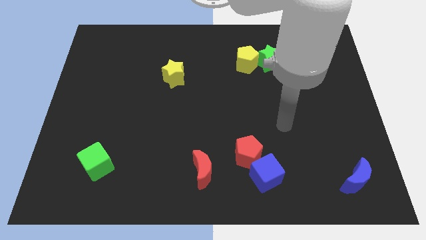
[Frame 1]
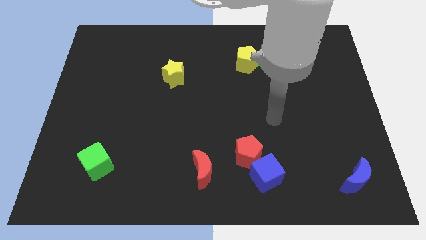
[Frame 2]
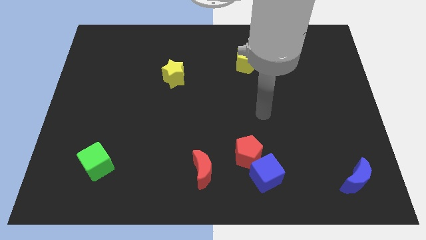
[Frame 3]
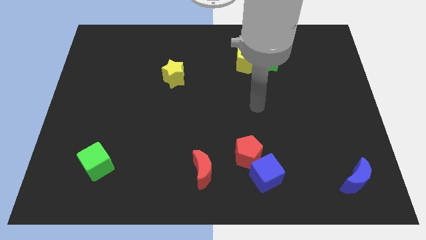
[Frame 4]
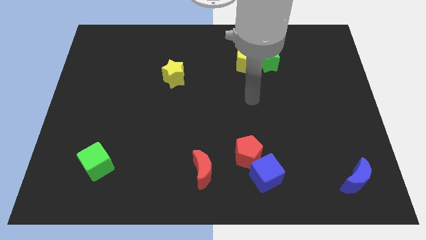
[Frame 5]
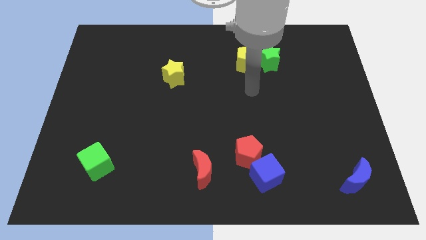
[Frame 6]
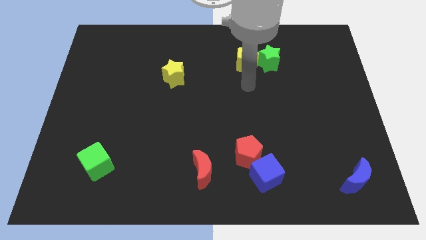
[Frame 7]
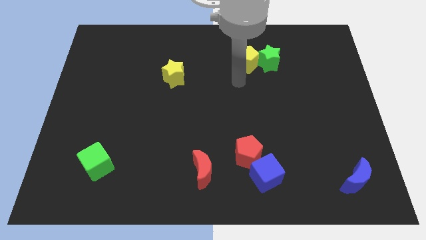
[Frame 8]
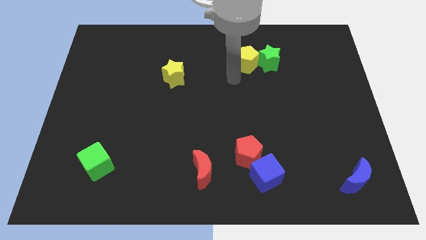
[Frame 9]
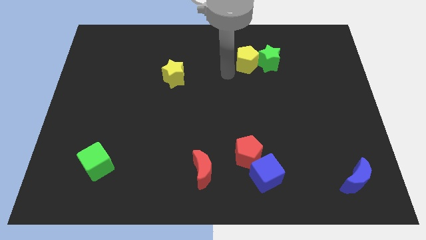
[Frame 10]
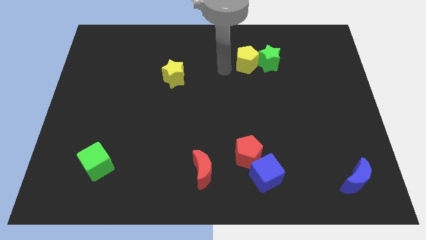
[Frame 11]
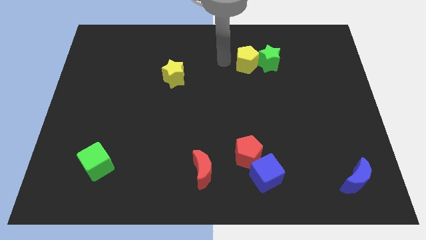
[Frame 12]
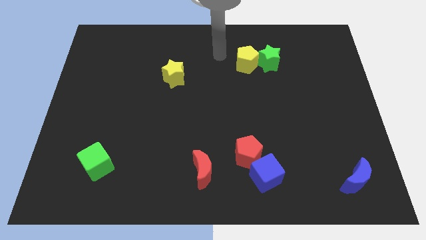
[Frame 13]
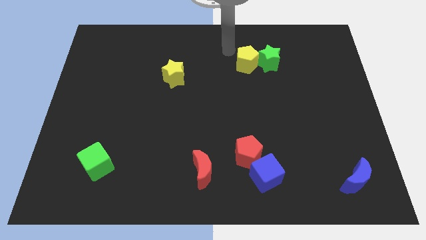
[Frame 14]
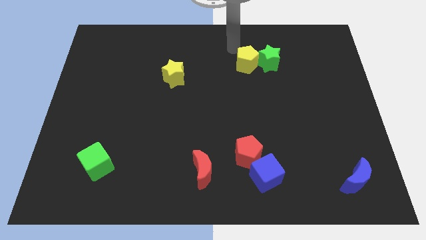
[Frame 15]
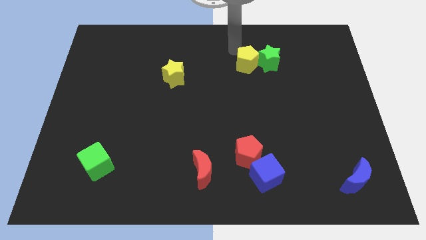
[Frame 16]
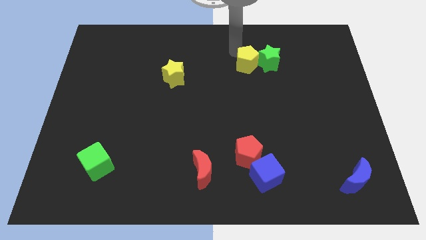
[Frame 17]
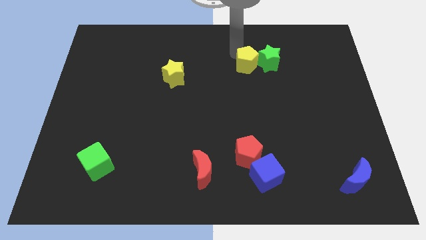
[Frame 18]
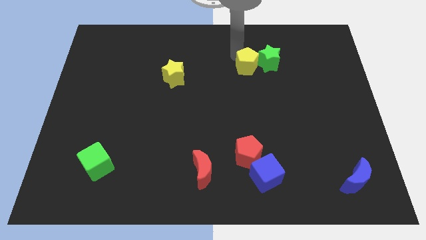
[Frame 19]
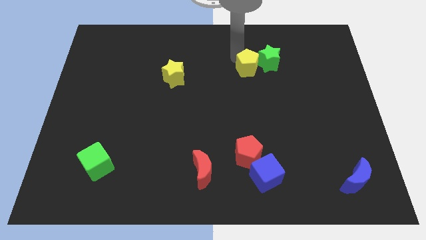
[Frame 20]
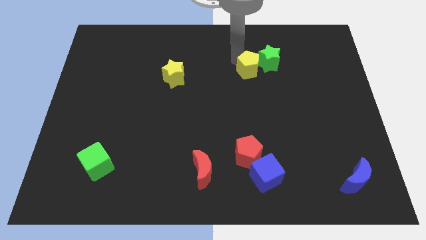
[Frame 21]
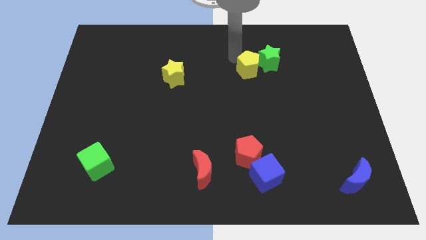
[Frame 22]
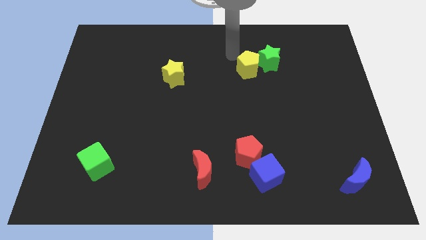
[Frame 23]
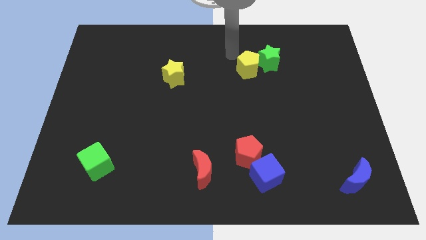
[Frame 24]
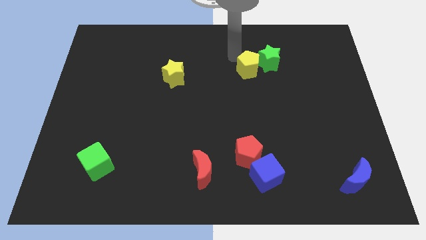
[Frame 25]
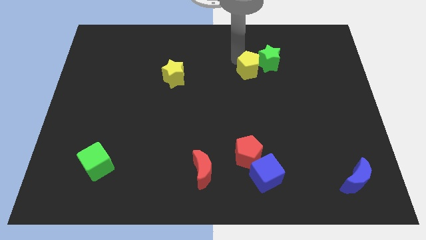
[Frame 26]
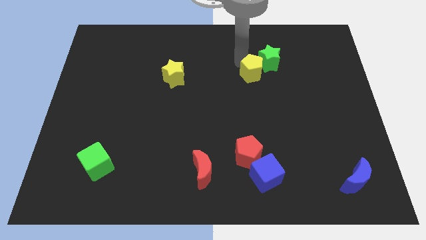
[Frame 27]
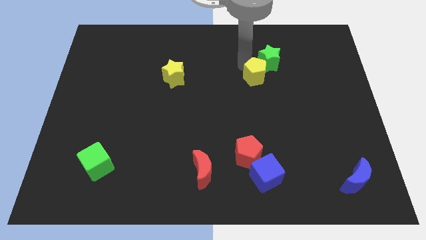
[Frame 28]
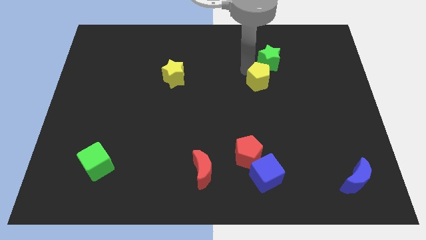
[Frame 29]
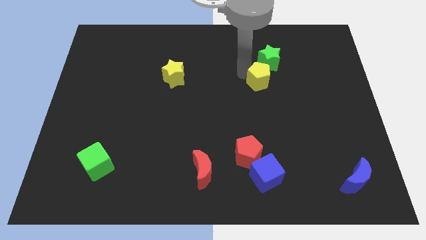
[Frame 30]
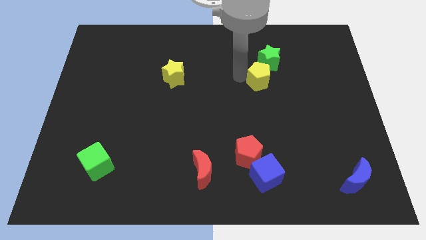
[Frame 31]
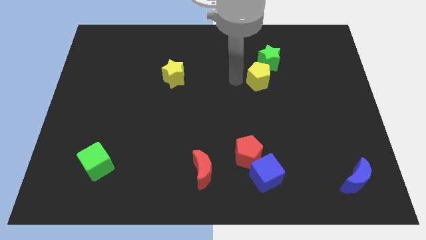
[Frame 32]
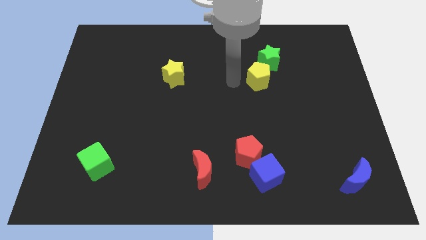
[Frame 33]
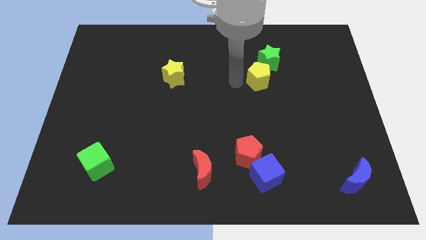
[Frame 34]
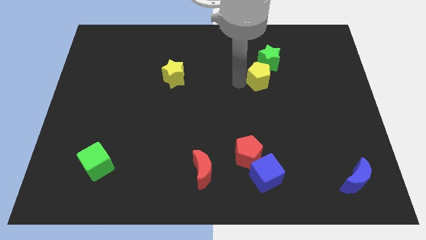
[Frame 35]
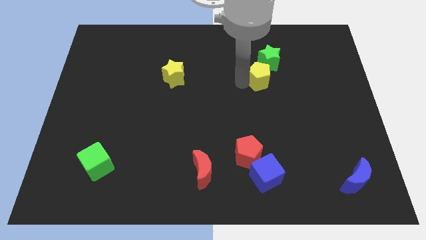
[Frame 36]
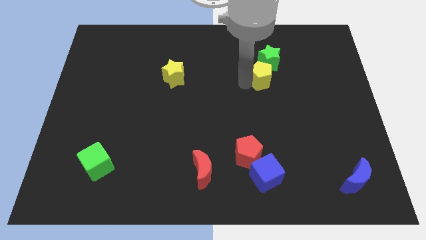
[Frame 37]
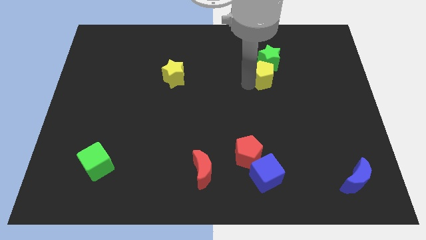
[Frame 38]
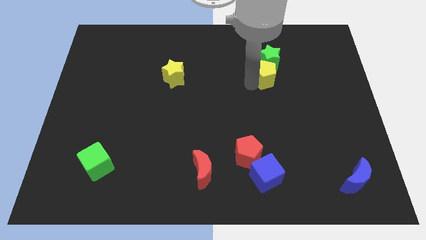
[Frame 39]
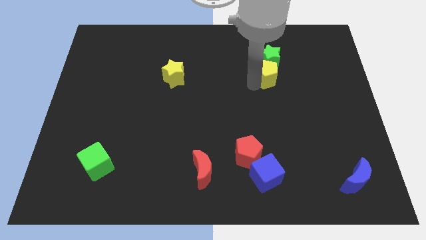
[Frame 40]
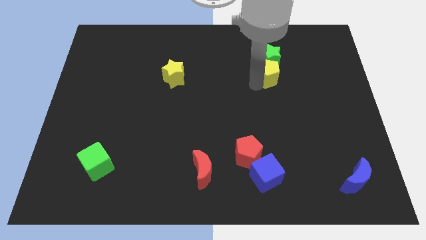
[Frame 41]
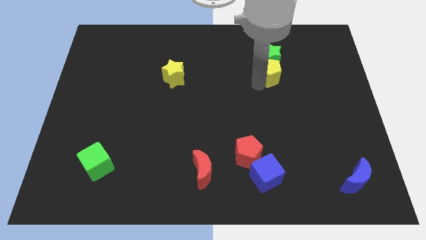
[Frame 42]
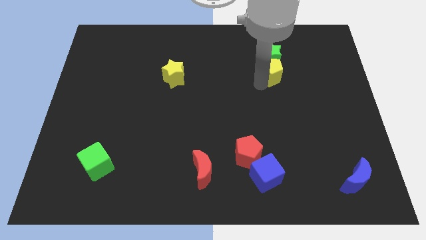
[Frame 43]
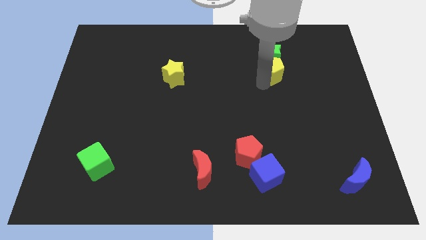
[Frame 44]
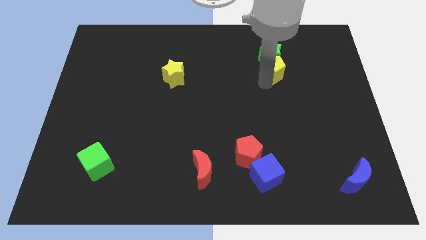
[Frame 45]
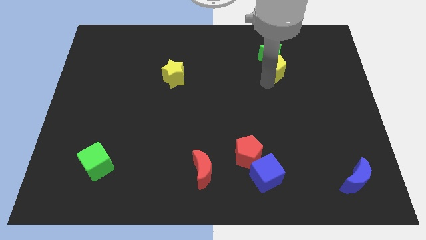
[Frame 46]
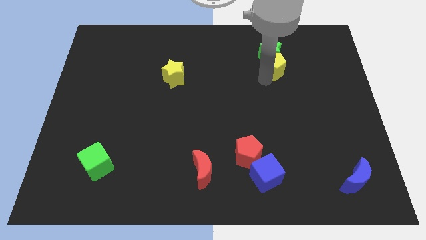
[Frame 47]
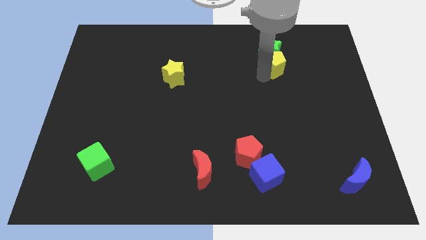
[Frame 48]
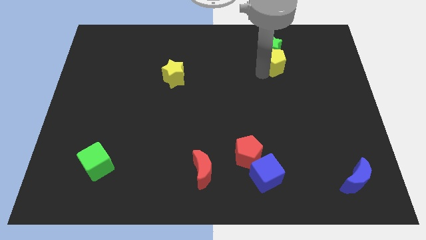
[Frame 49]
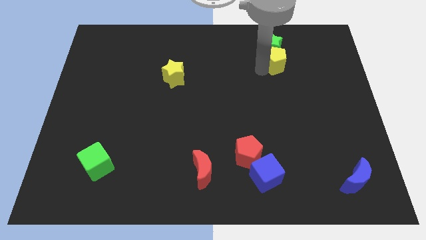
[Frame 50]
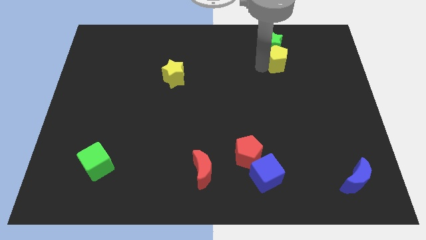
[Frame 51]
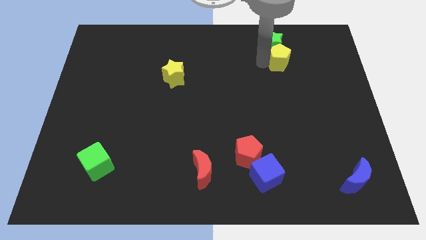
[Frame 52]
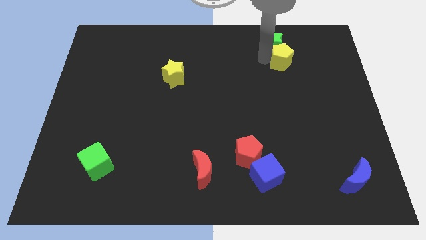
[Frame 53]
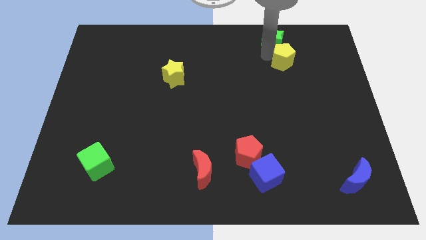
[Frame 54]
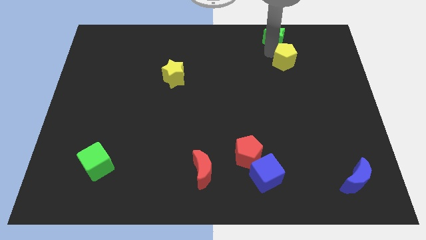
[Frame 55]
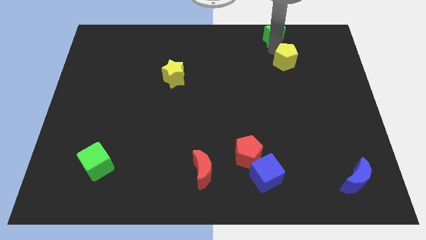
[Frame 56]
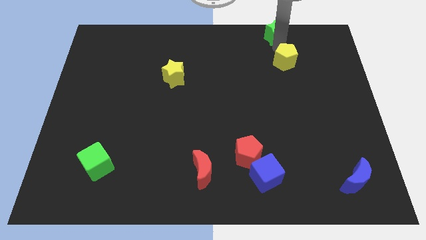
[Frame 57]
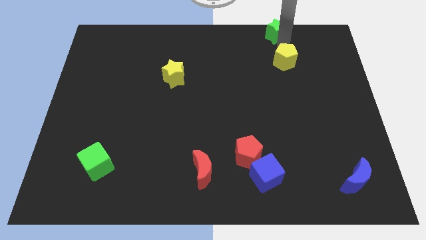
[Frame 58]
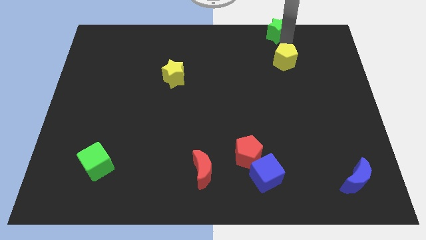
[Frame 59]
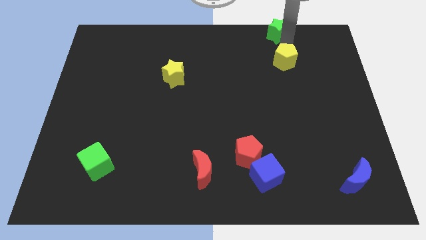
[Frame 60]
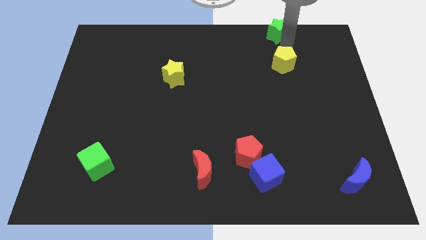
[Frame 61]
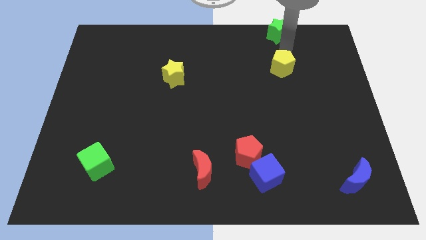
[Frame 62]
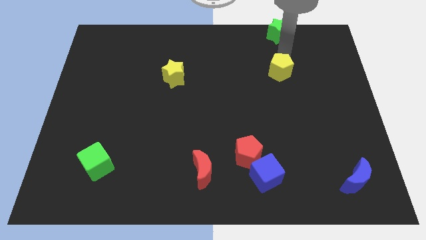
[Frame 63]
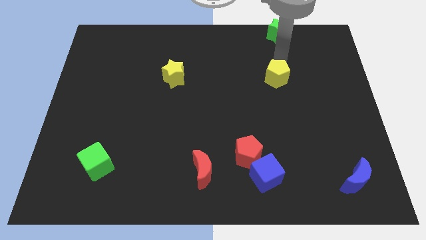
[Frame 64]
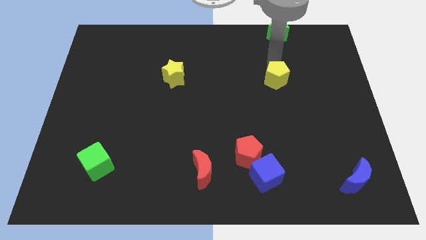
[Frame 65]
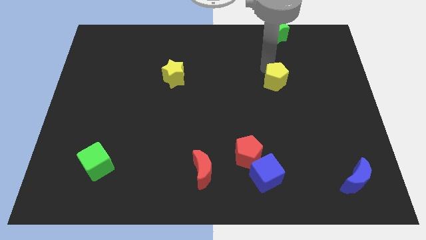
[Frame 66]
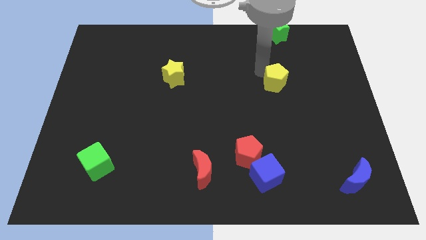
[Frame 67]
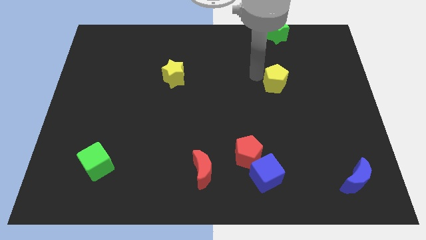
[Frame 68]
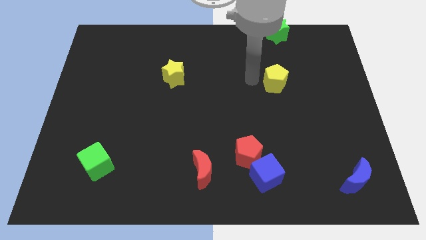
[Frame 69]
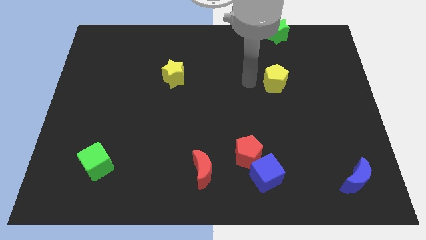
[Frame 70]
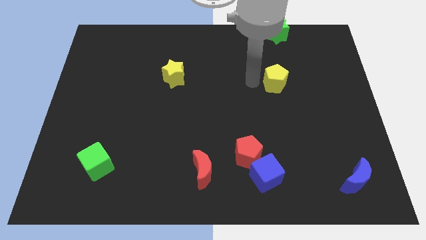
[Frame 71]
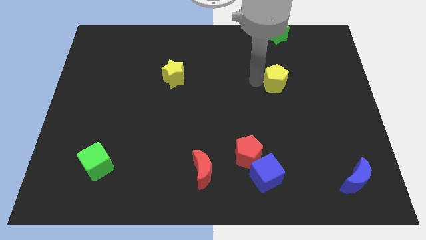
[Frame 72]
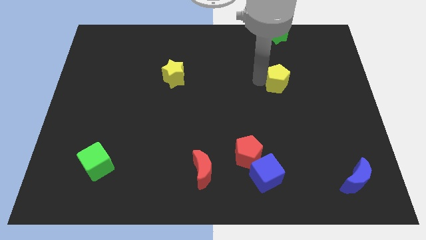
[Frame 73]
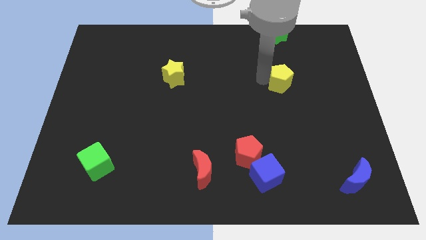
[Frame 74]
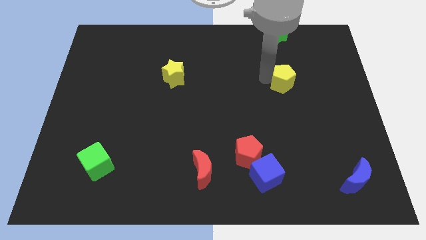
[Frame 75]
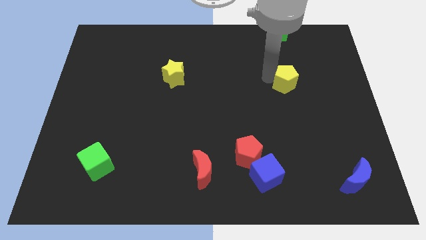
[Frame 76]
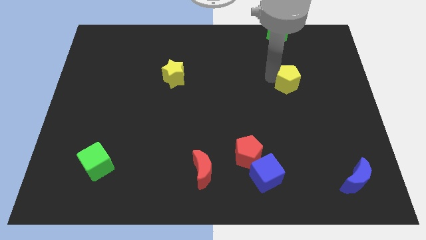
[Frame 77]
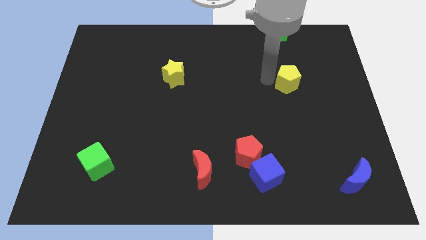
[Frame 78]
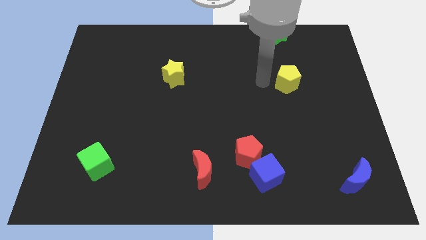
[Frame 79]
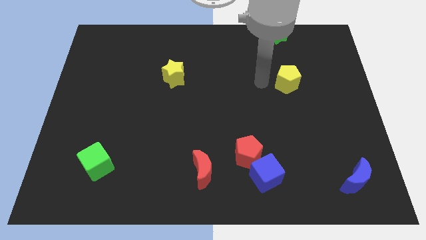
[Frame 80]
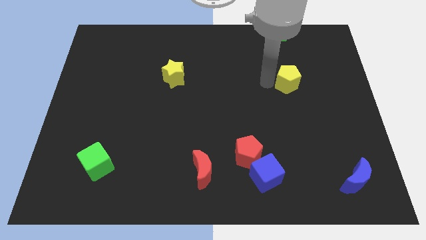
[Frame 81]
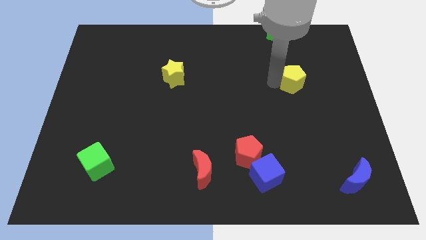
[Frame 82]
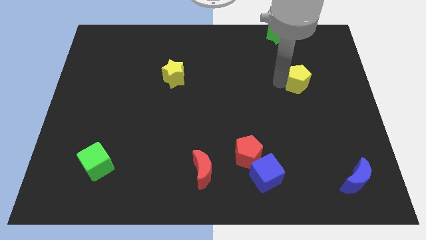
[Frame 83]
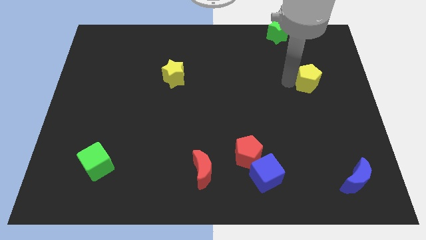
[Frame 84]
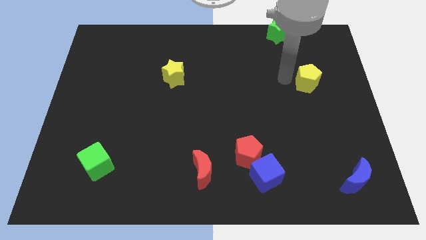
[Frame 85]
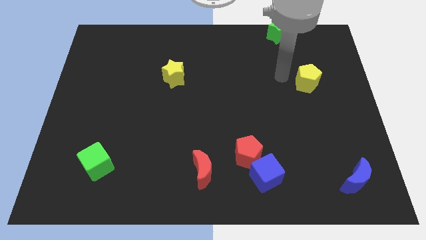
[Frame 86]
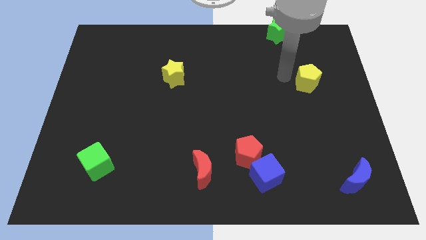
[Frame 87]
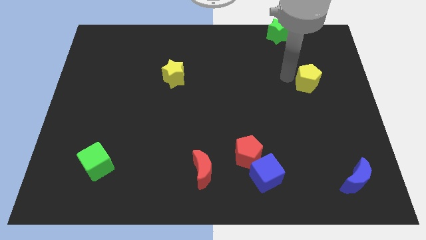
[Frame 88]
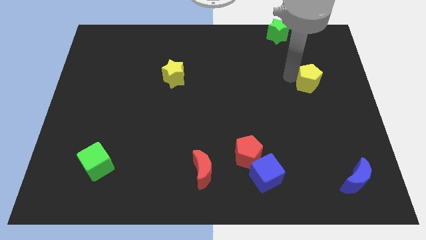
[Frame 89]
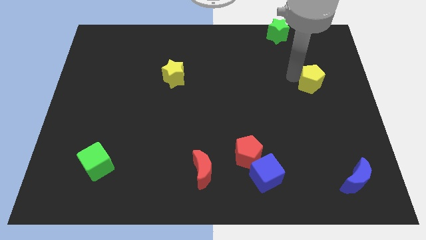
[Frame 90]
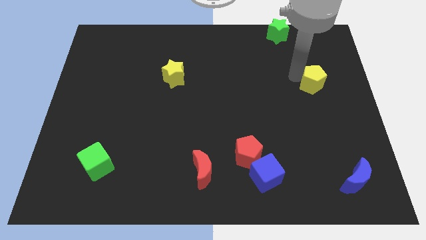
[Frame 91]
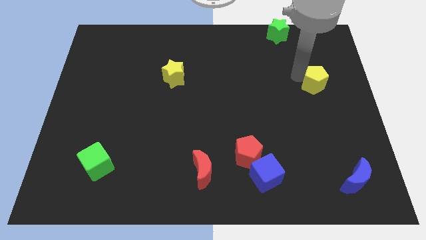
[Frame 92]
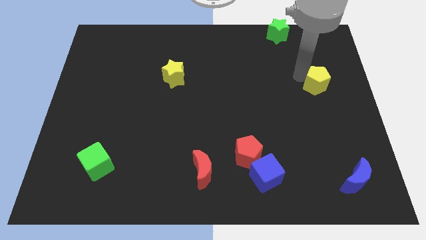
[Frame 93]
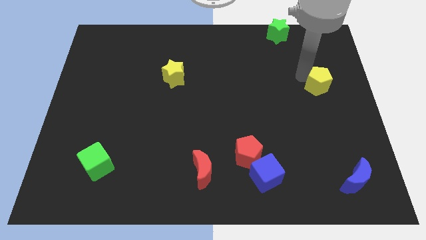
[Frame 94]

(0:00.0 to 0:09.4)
move the yellow pentagon to the center right
